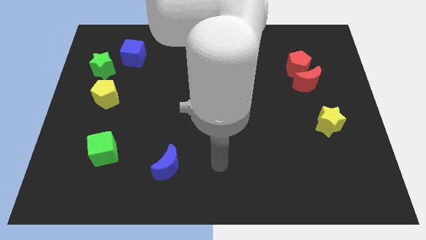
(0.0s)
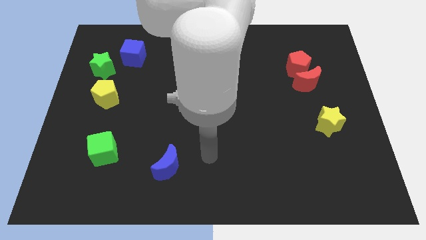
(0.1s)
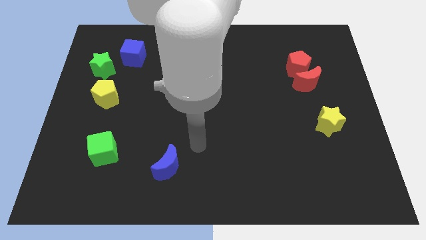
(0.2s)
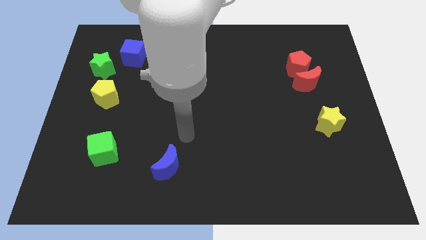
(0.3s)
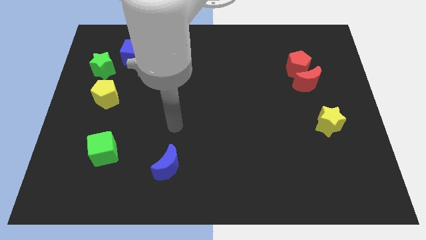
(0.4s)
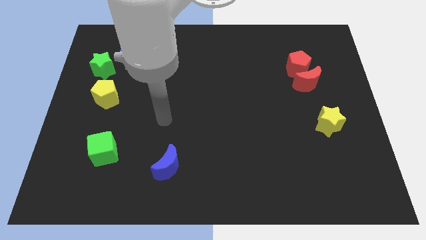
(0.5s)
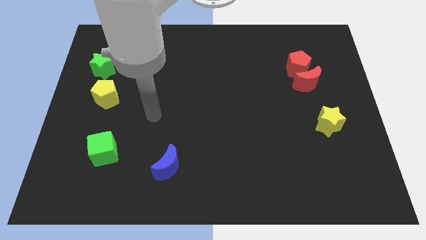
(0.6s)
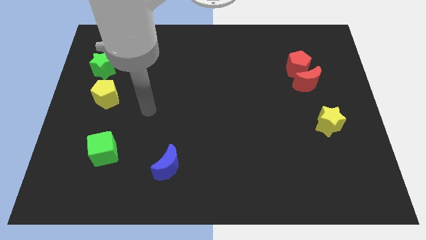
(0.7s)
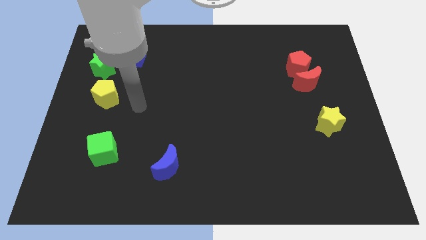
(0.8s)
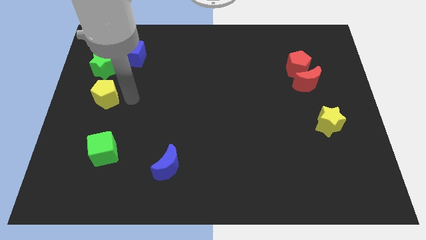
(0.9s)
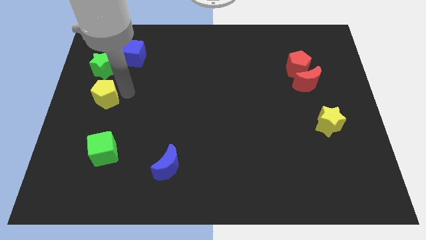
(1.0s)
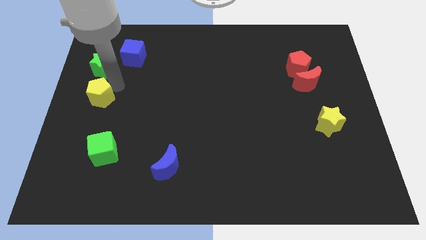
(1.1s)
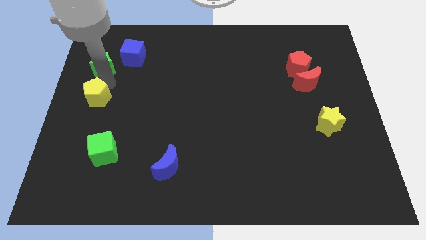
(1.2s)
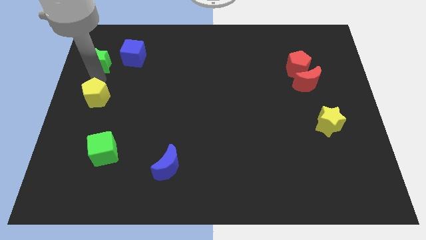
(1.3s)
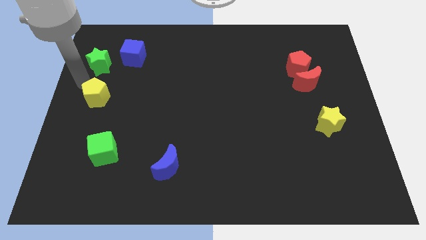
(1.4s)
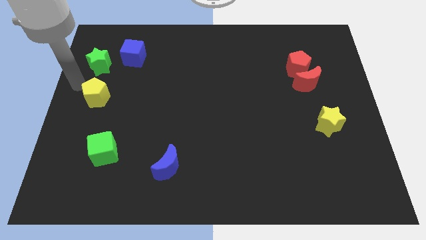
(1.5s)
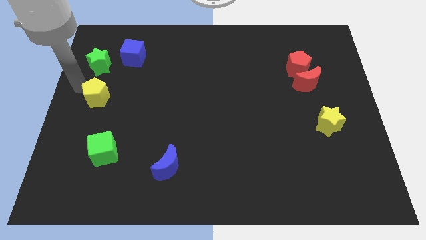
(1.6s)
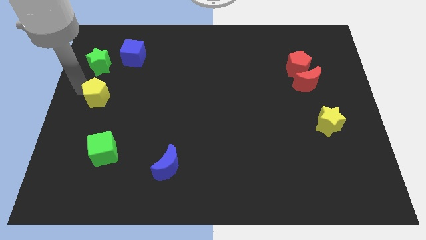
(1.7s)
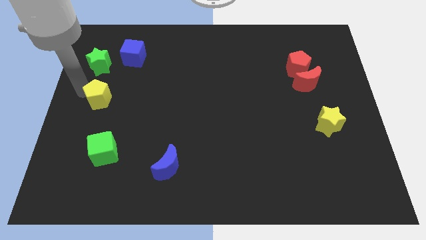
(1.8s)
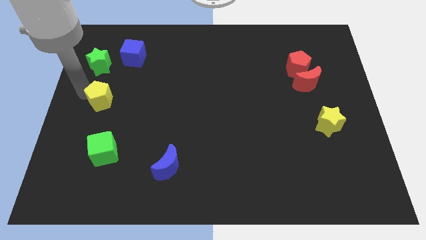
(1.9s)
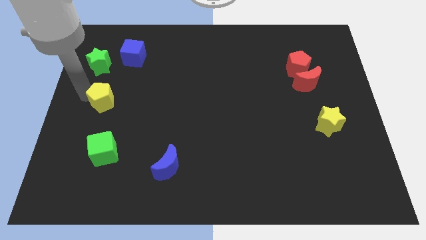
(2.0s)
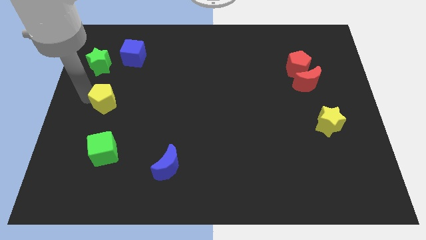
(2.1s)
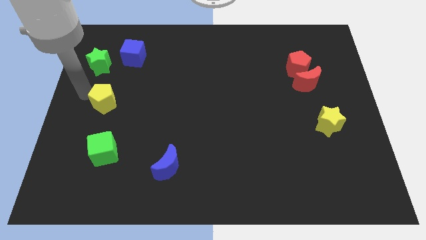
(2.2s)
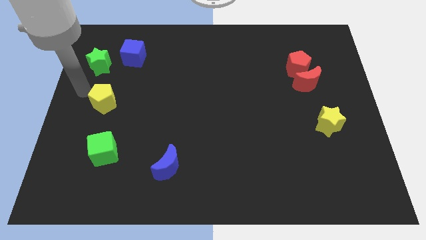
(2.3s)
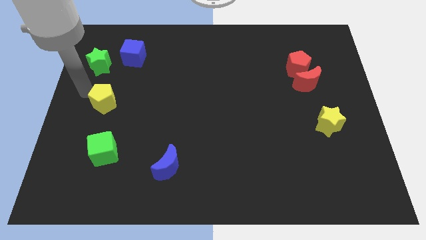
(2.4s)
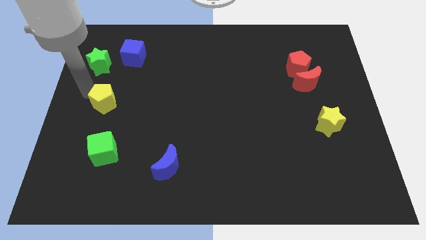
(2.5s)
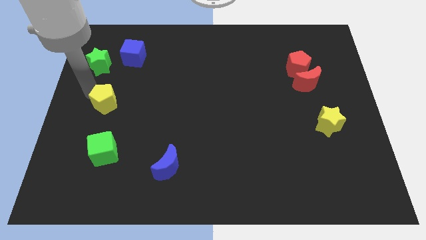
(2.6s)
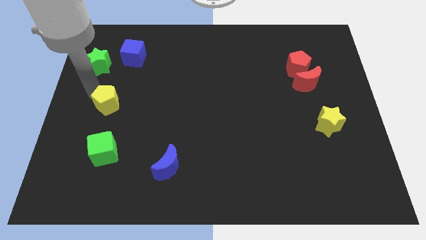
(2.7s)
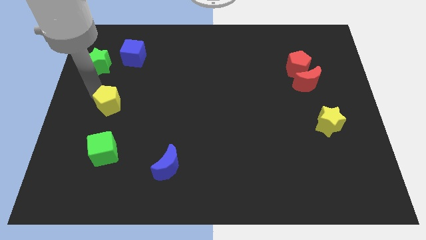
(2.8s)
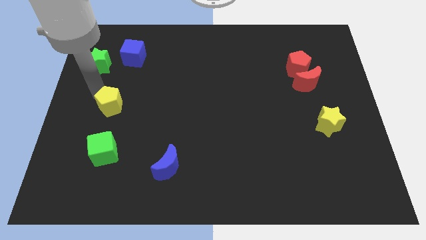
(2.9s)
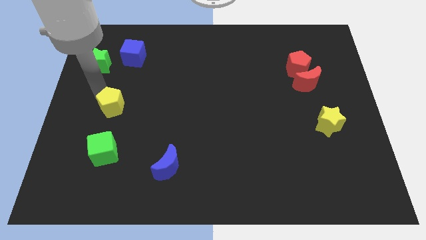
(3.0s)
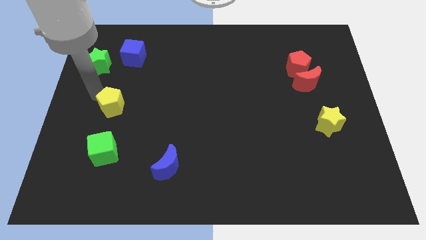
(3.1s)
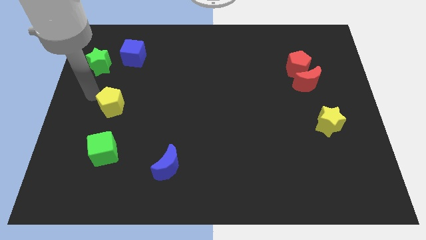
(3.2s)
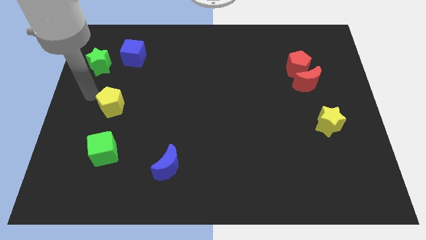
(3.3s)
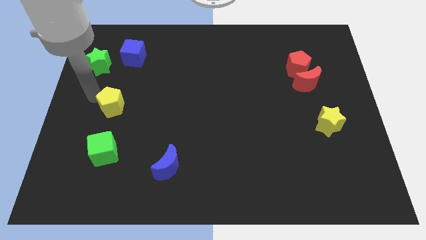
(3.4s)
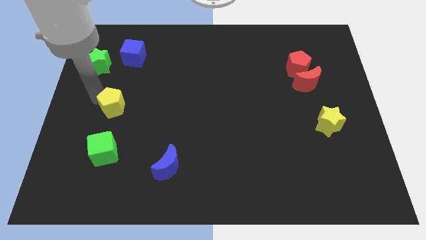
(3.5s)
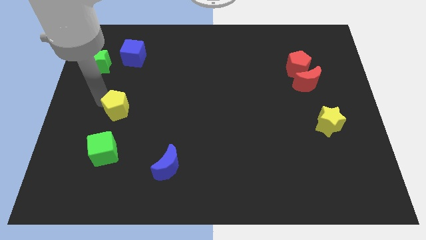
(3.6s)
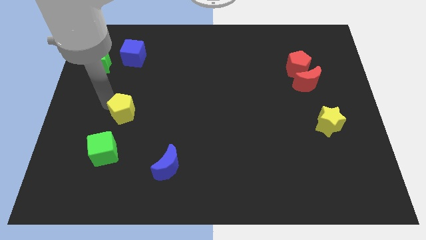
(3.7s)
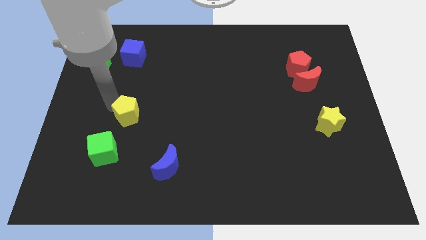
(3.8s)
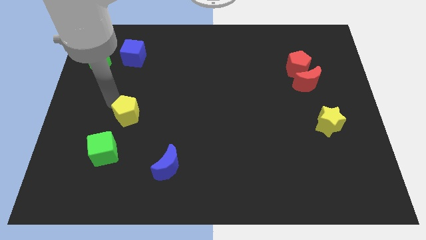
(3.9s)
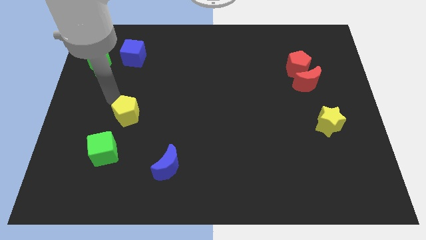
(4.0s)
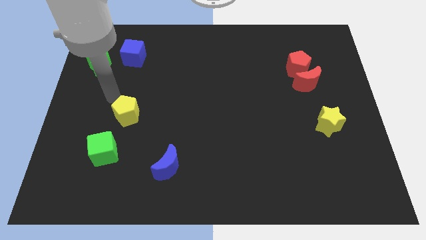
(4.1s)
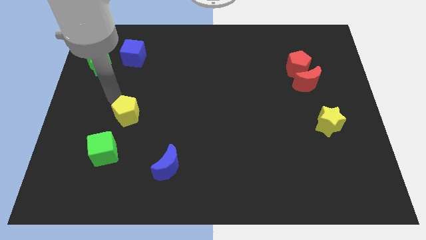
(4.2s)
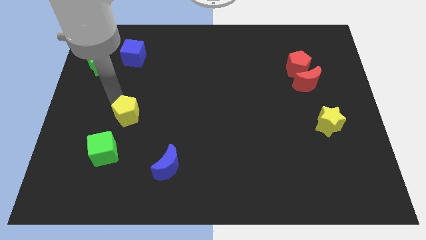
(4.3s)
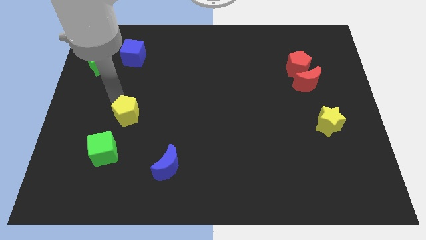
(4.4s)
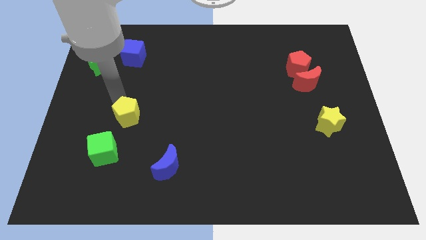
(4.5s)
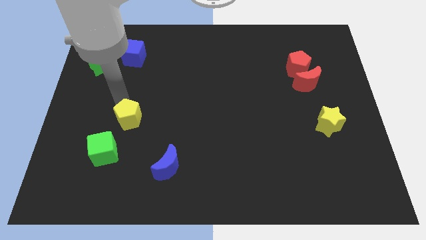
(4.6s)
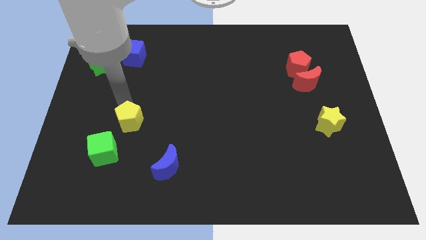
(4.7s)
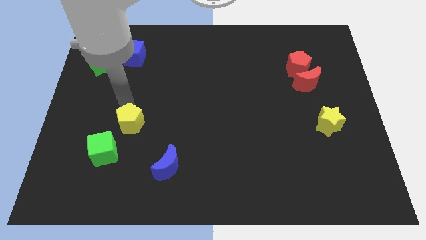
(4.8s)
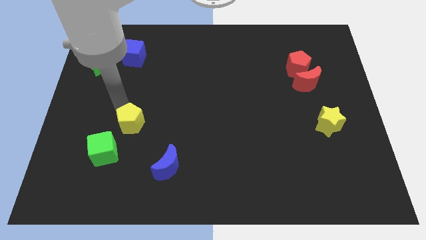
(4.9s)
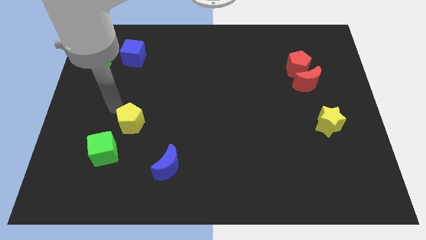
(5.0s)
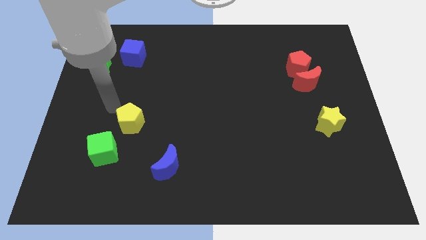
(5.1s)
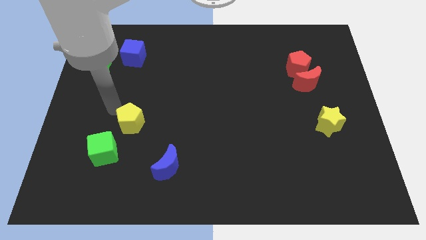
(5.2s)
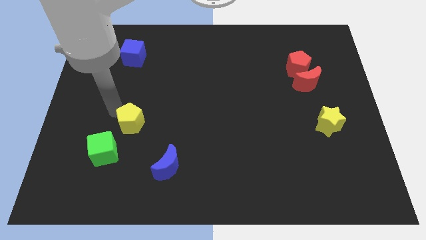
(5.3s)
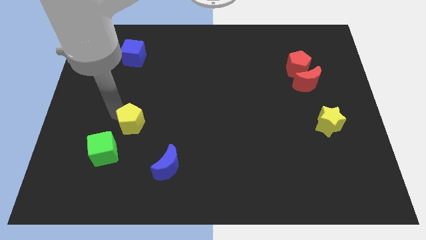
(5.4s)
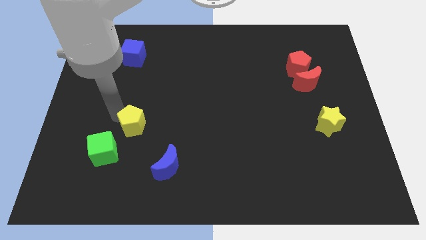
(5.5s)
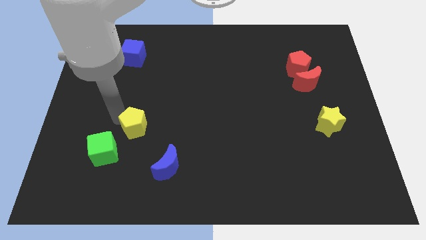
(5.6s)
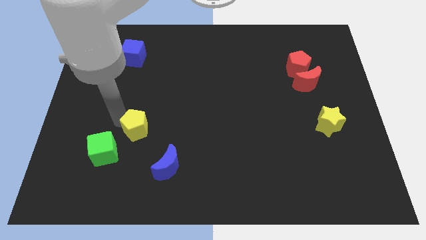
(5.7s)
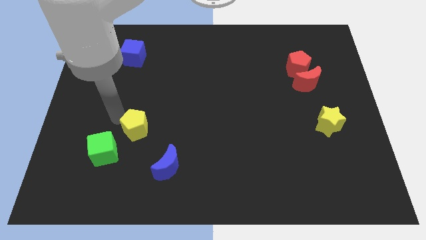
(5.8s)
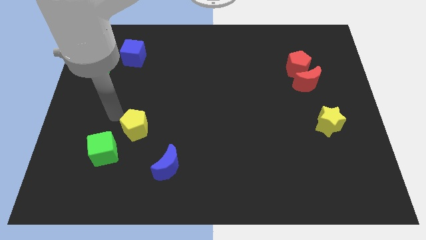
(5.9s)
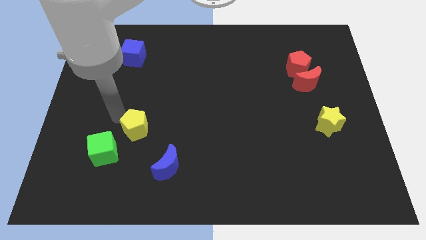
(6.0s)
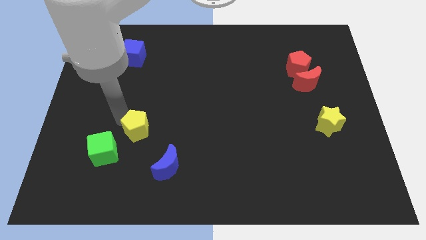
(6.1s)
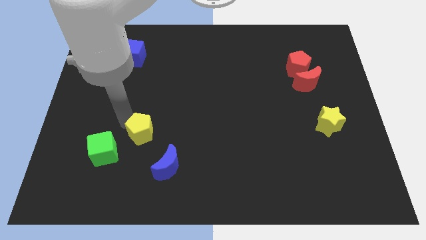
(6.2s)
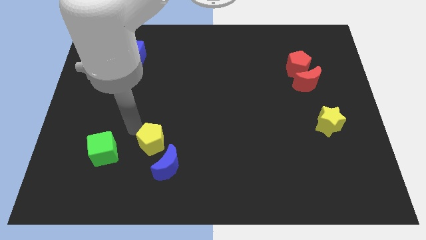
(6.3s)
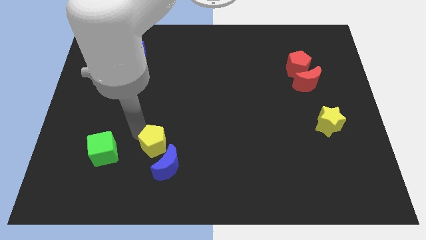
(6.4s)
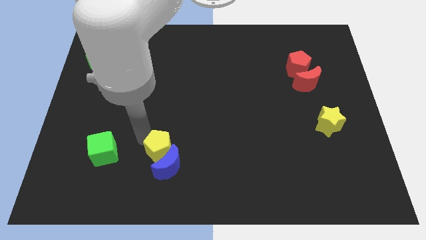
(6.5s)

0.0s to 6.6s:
slide the yellow pentagon downwards and to the right diagonally

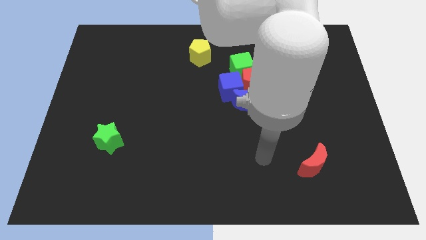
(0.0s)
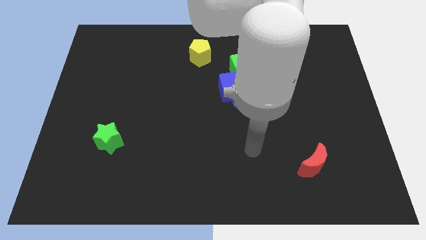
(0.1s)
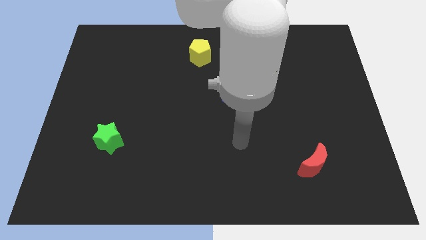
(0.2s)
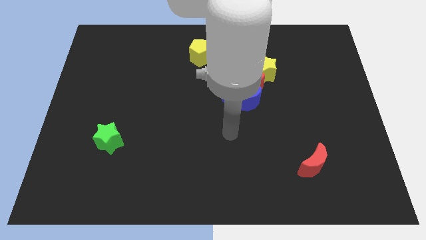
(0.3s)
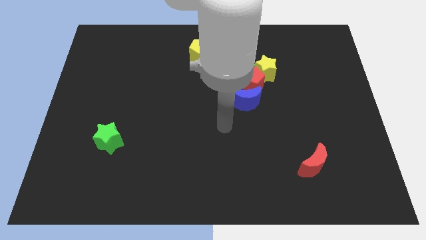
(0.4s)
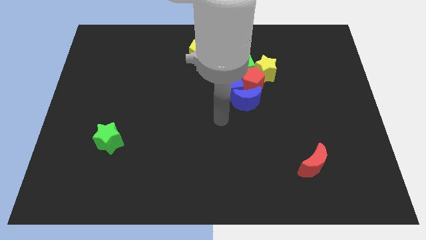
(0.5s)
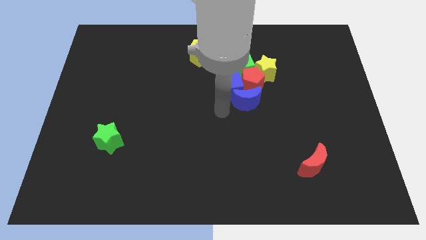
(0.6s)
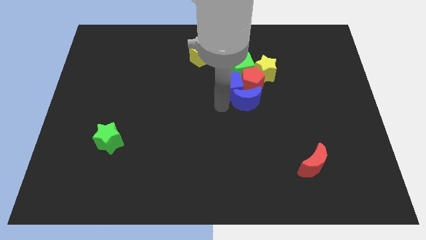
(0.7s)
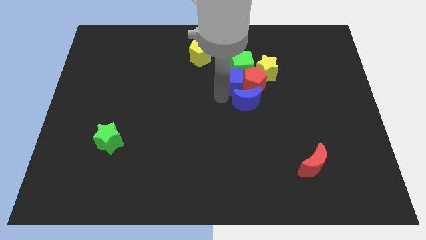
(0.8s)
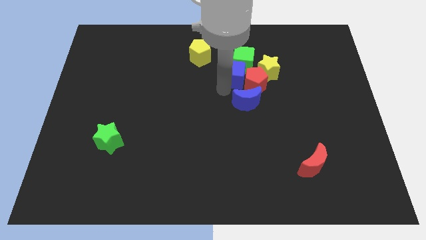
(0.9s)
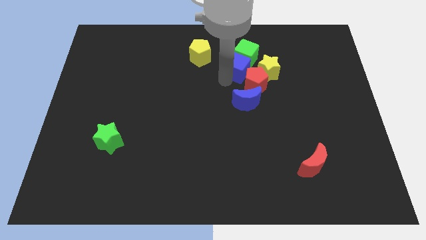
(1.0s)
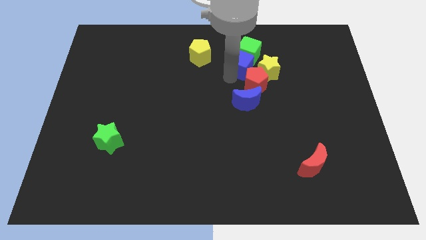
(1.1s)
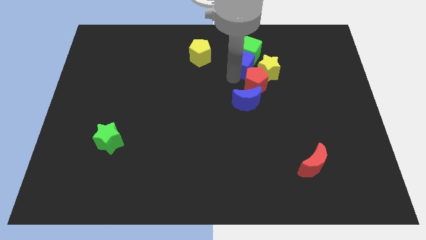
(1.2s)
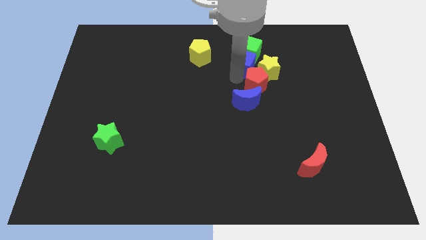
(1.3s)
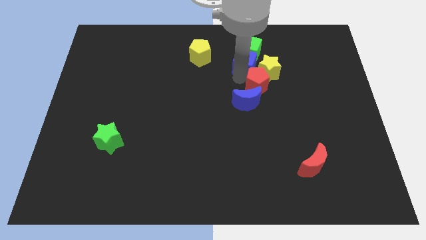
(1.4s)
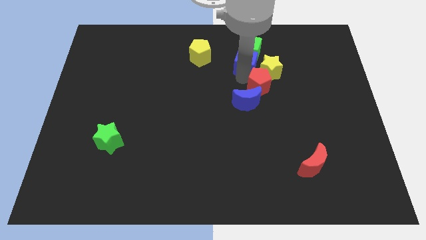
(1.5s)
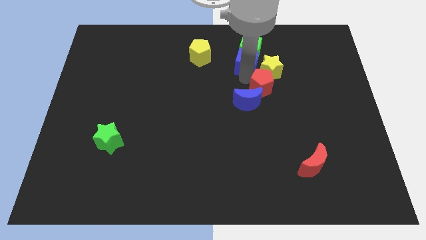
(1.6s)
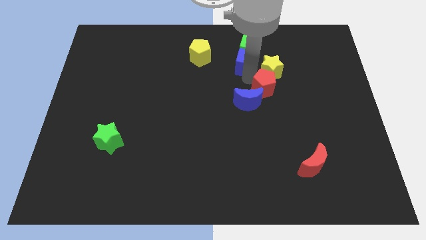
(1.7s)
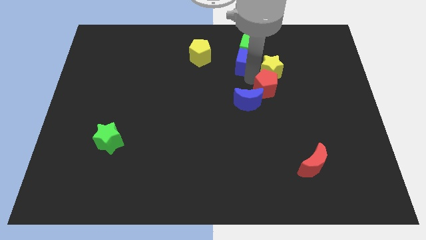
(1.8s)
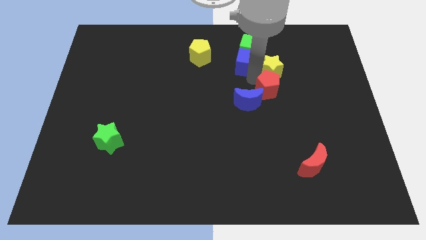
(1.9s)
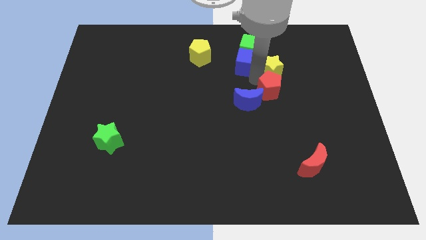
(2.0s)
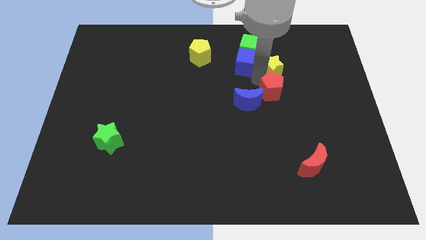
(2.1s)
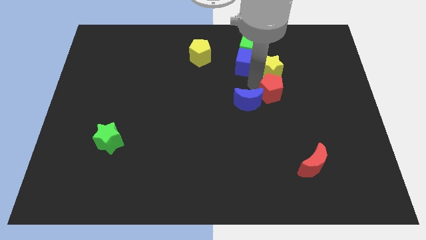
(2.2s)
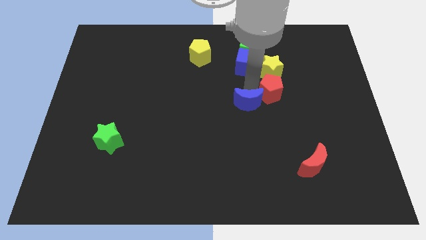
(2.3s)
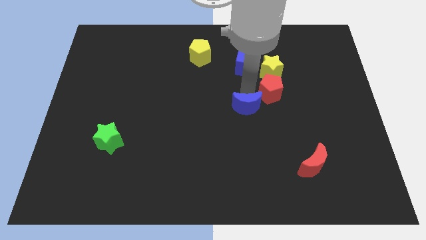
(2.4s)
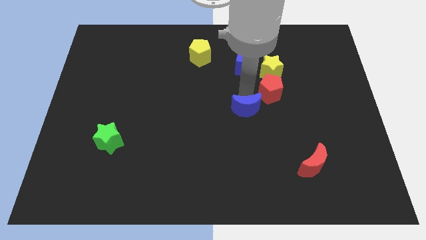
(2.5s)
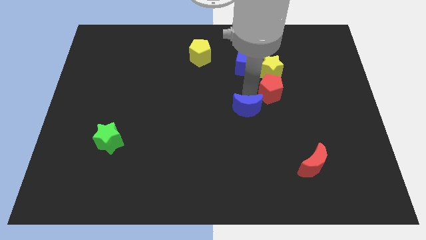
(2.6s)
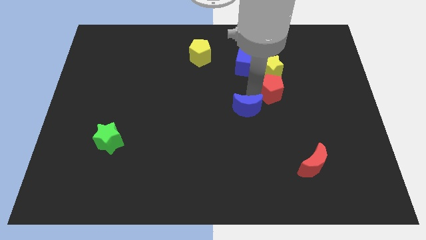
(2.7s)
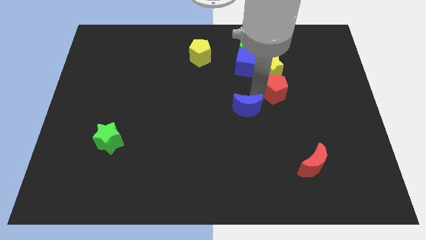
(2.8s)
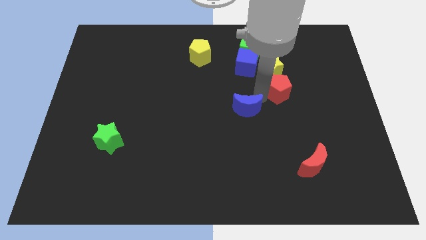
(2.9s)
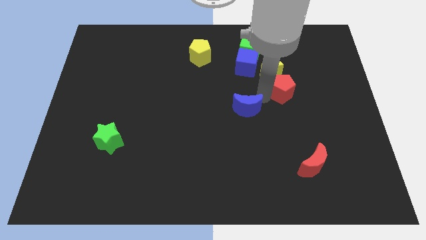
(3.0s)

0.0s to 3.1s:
slide the red pentagon a little to the right
